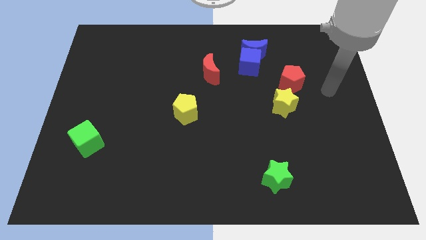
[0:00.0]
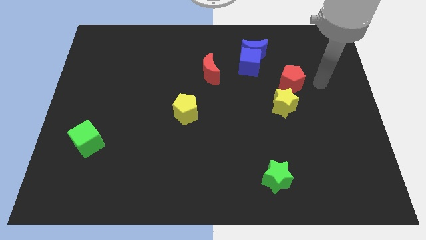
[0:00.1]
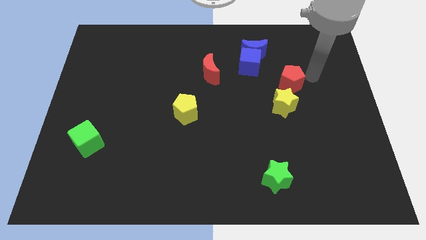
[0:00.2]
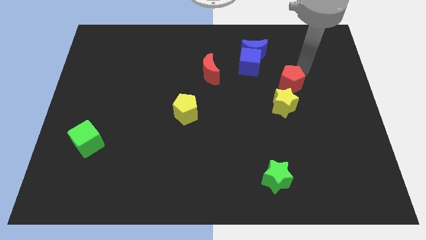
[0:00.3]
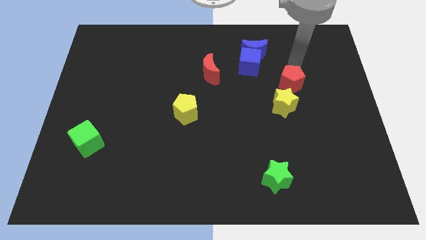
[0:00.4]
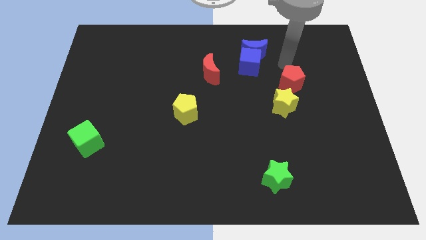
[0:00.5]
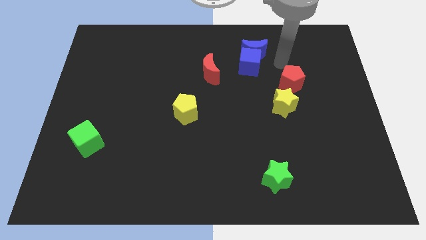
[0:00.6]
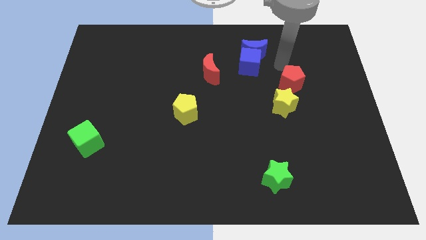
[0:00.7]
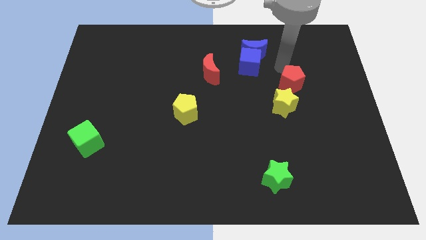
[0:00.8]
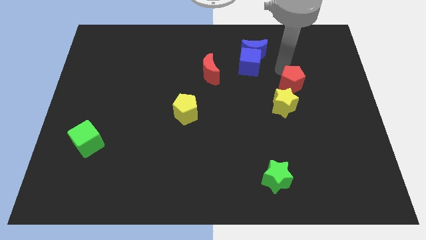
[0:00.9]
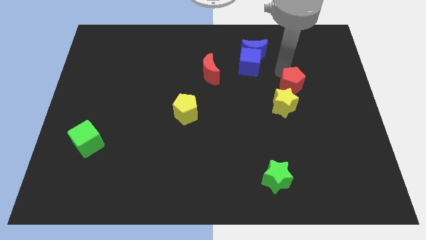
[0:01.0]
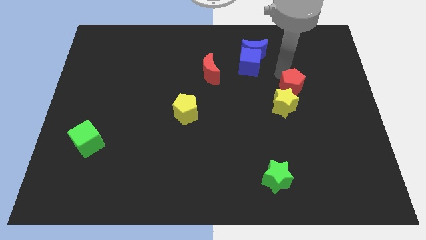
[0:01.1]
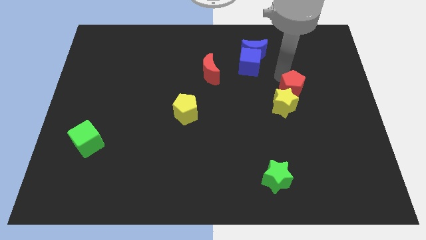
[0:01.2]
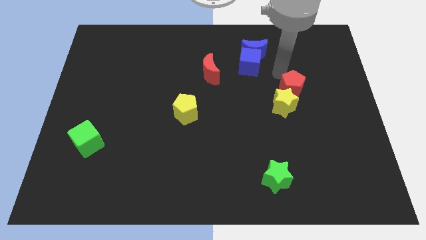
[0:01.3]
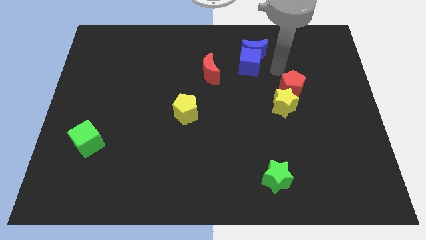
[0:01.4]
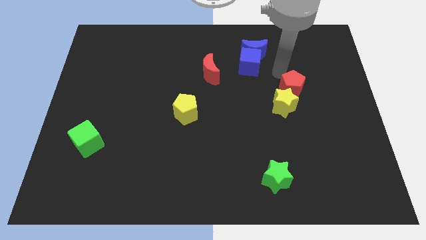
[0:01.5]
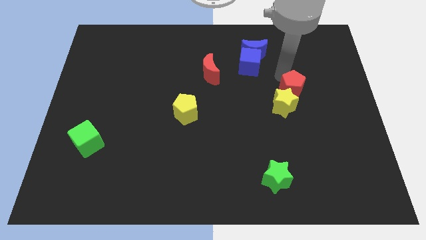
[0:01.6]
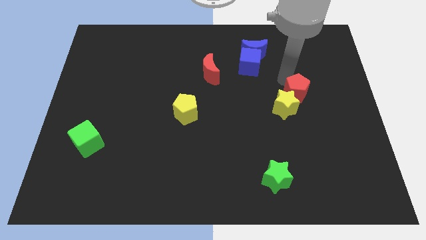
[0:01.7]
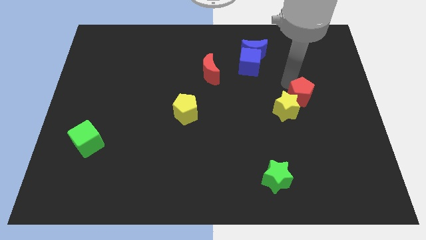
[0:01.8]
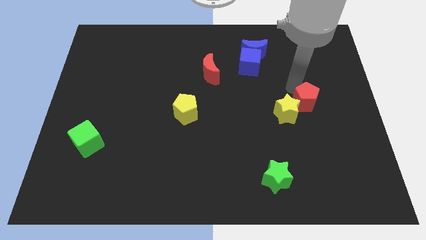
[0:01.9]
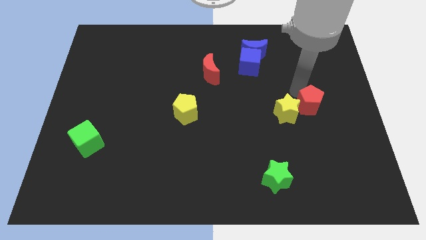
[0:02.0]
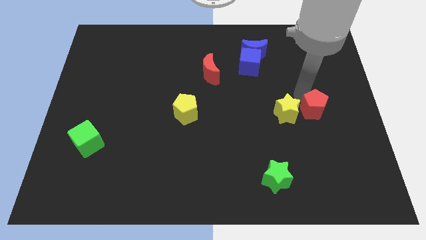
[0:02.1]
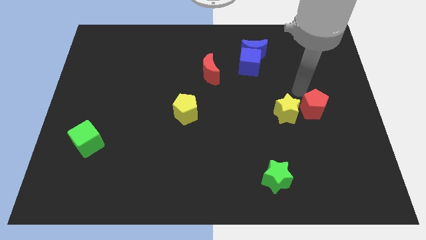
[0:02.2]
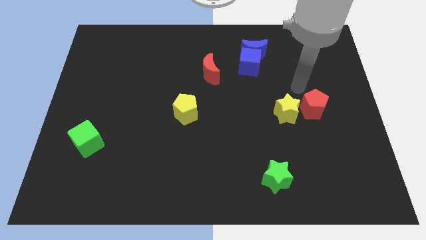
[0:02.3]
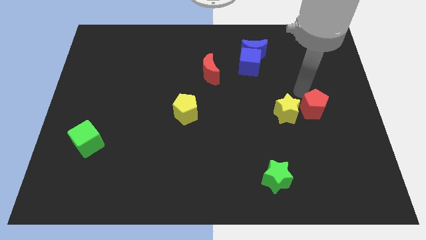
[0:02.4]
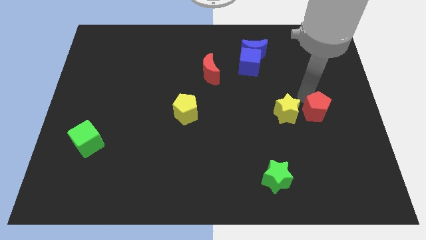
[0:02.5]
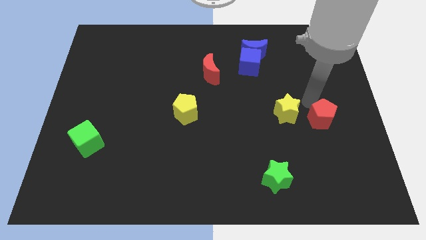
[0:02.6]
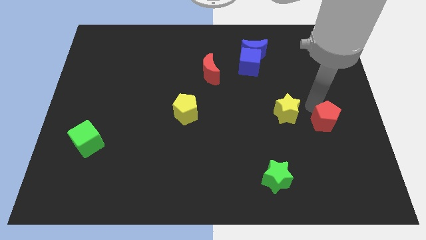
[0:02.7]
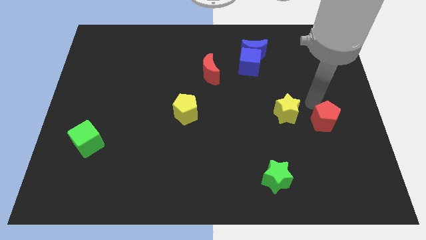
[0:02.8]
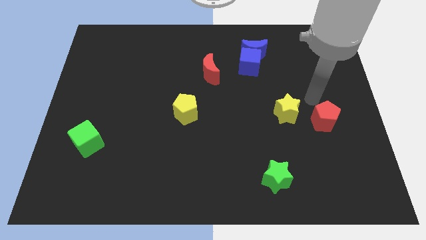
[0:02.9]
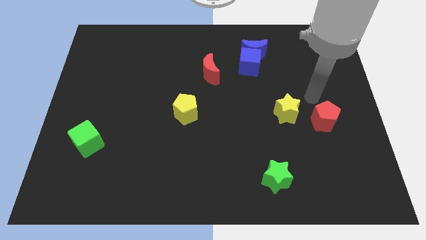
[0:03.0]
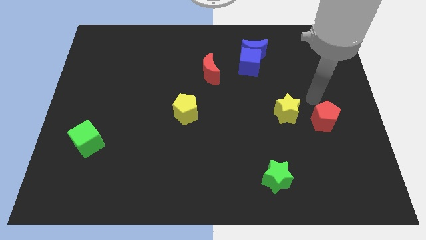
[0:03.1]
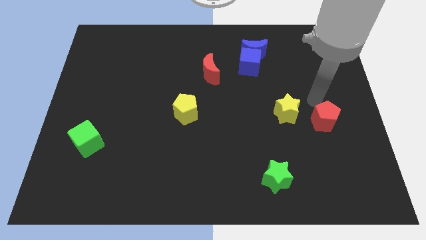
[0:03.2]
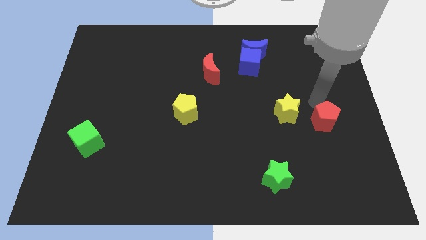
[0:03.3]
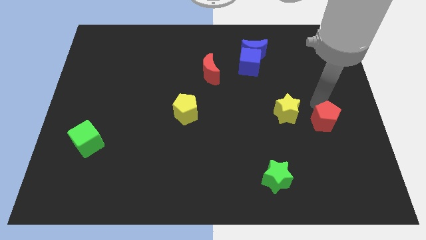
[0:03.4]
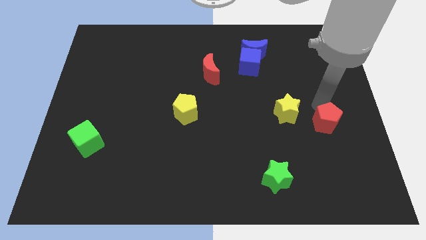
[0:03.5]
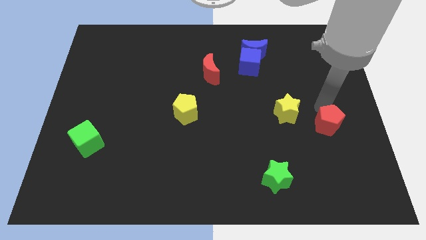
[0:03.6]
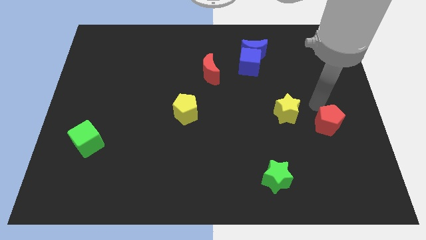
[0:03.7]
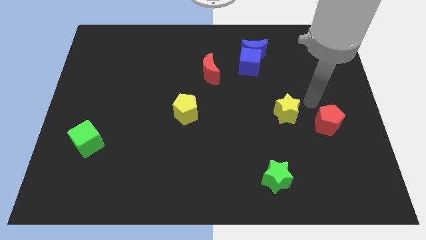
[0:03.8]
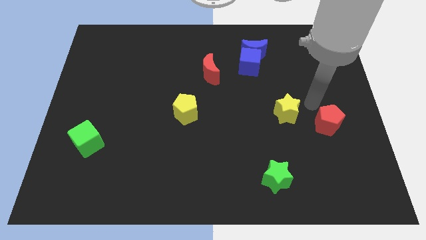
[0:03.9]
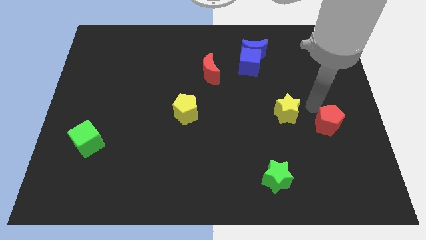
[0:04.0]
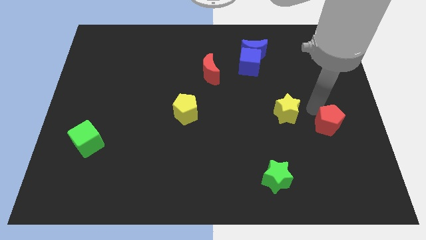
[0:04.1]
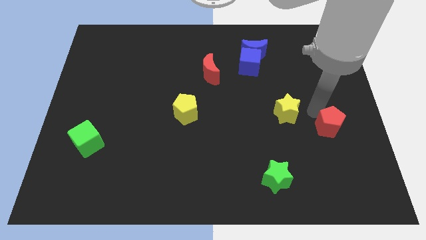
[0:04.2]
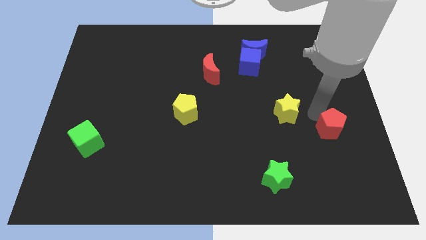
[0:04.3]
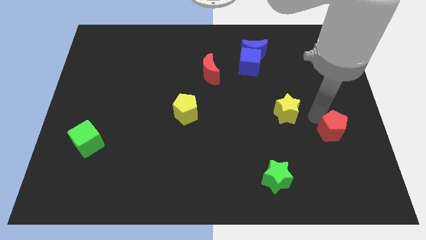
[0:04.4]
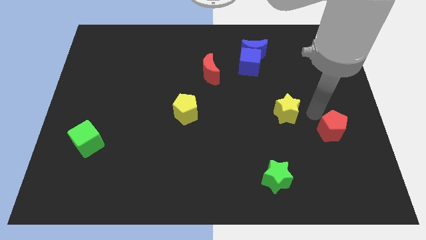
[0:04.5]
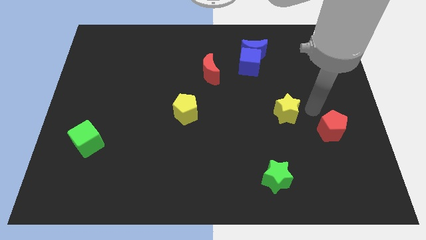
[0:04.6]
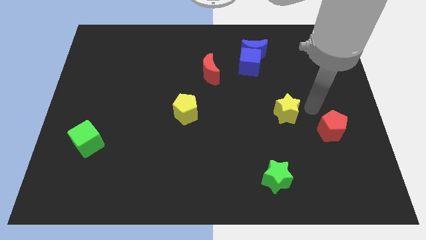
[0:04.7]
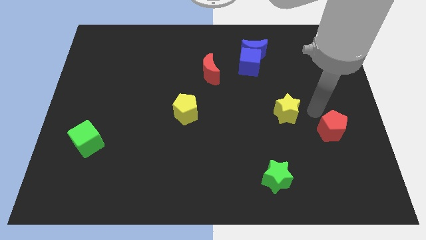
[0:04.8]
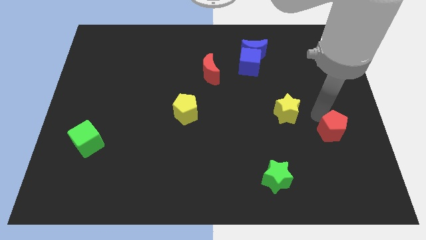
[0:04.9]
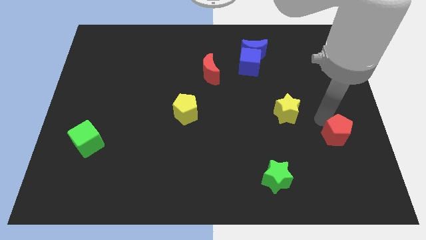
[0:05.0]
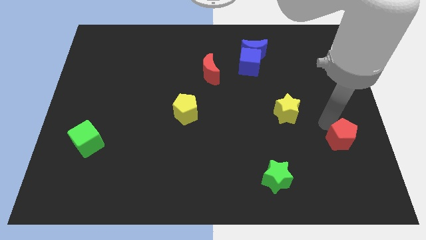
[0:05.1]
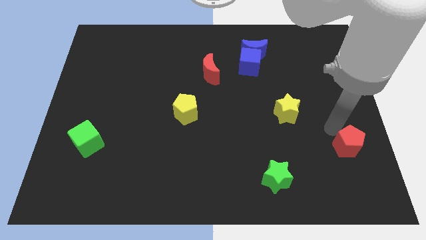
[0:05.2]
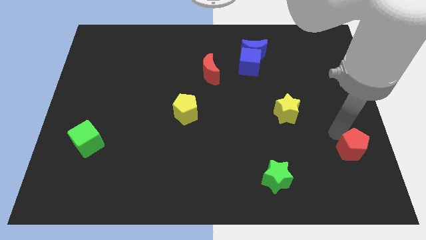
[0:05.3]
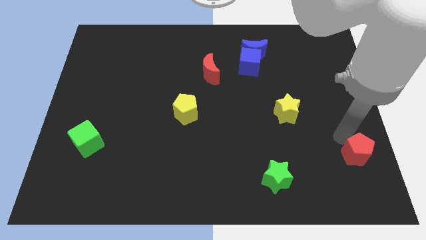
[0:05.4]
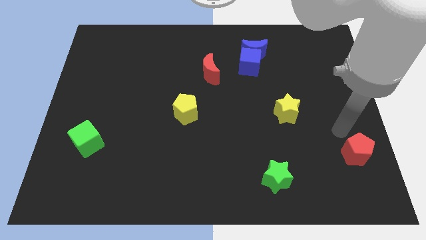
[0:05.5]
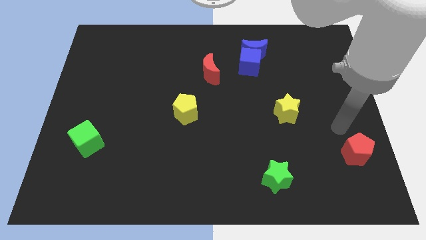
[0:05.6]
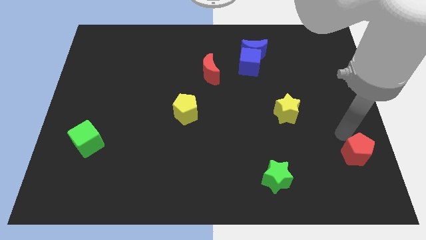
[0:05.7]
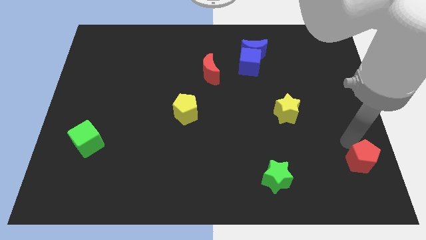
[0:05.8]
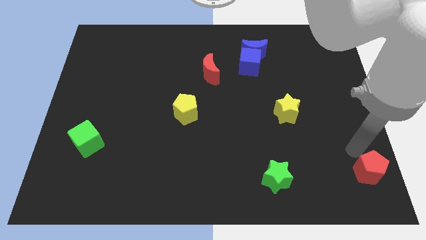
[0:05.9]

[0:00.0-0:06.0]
put the red pentagon to the bottom right of the board
